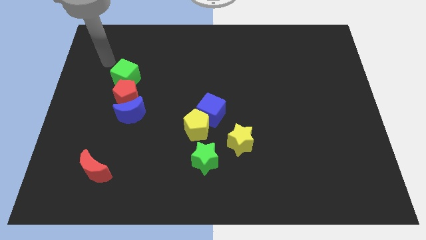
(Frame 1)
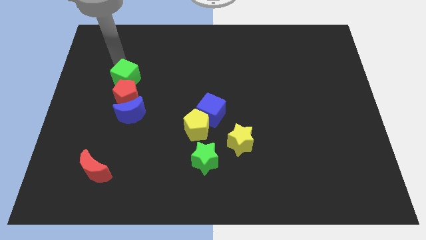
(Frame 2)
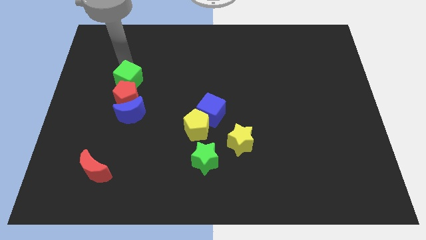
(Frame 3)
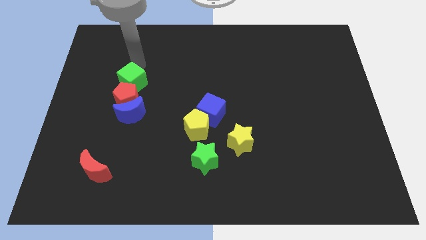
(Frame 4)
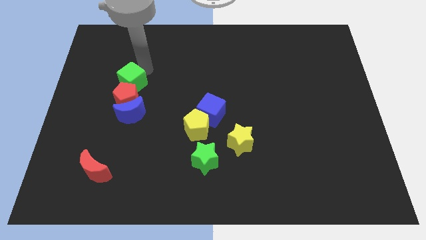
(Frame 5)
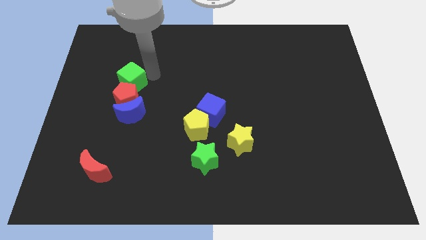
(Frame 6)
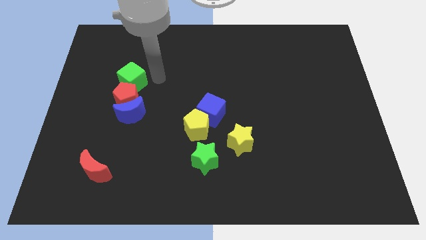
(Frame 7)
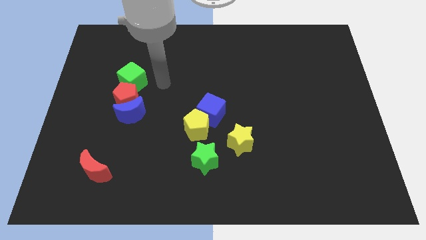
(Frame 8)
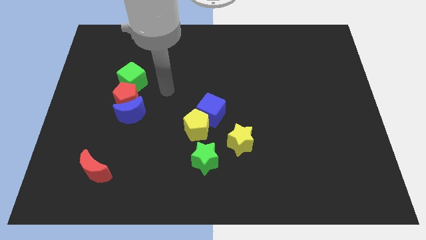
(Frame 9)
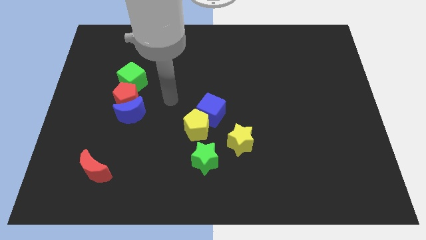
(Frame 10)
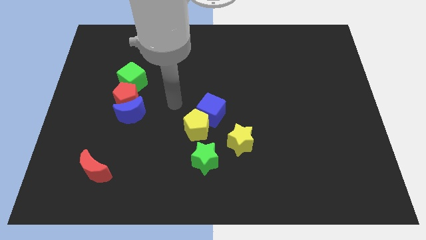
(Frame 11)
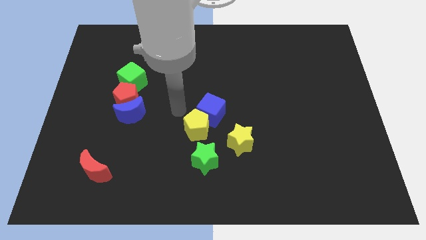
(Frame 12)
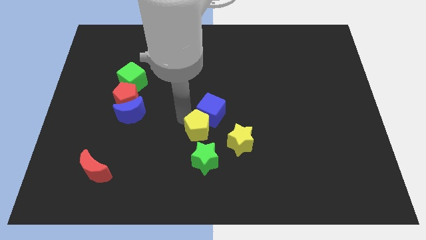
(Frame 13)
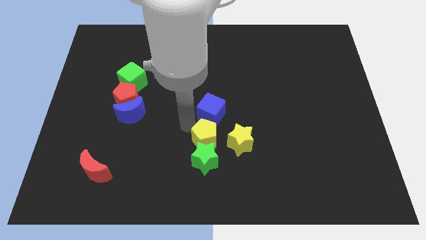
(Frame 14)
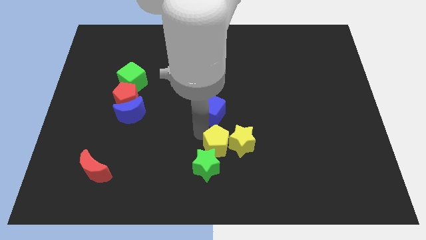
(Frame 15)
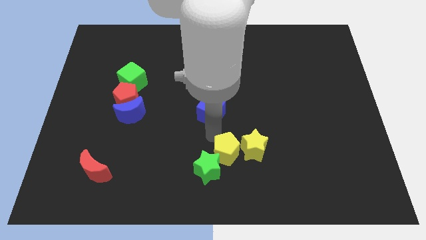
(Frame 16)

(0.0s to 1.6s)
separate the blue cube from the yellow pentagon

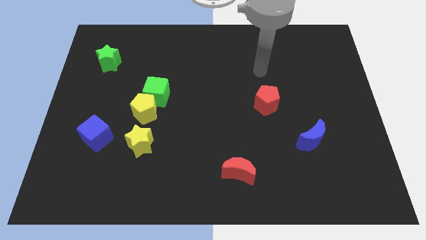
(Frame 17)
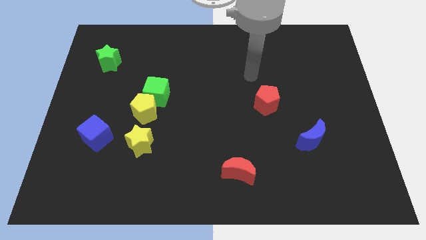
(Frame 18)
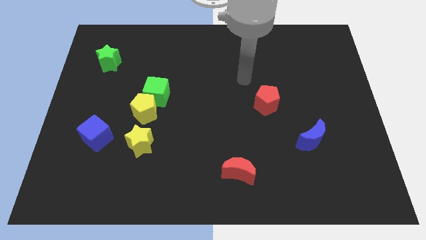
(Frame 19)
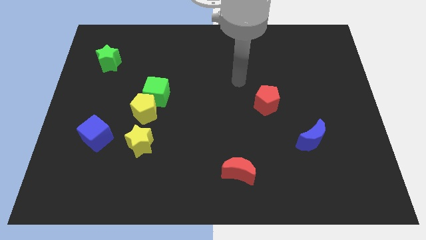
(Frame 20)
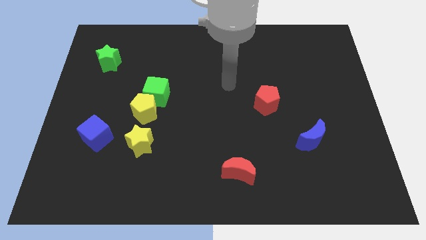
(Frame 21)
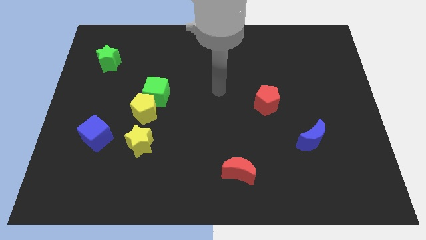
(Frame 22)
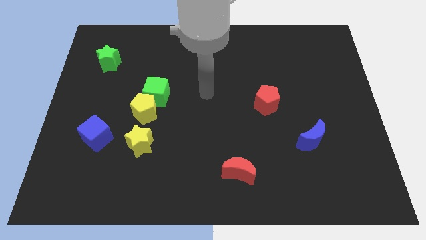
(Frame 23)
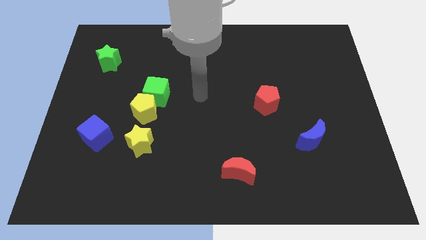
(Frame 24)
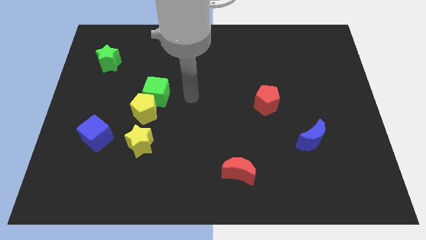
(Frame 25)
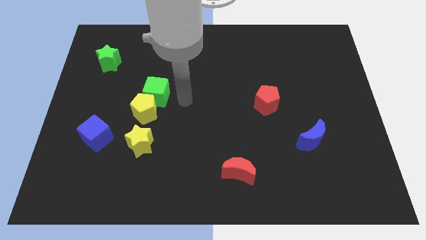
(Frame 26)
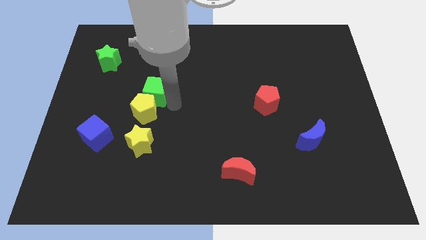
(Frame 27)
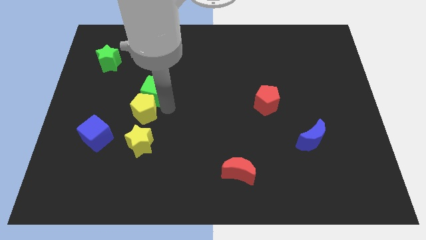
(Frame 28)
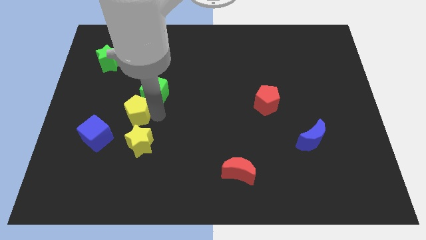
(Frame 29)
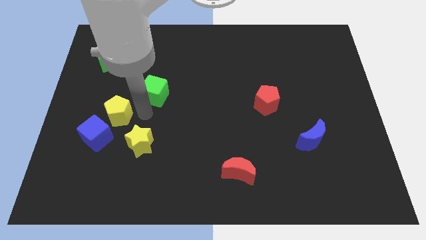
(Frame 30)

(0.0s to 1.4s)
move the green cube away from the yellow pentagon

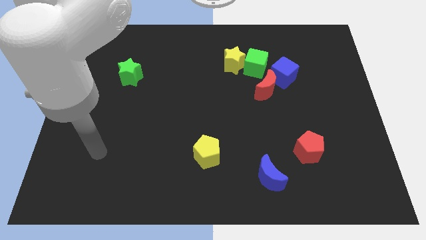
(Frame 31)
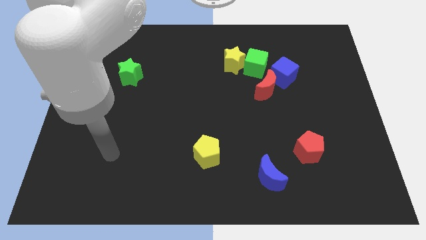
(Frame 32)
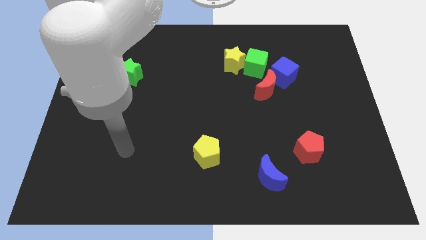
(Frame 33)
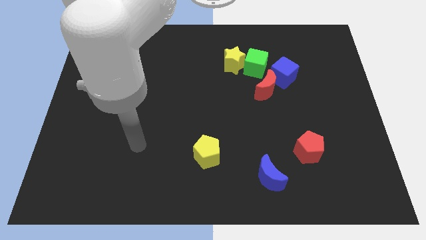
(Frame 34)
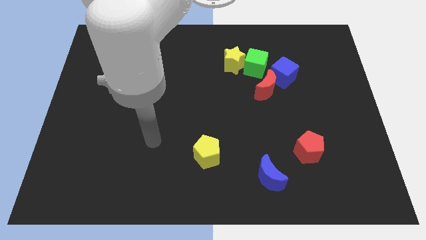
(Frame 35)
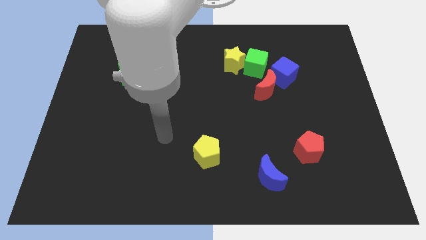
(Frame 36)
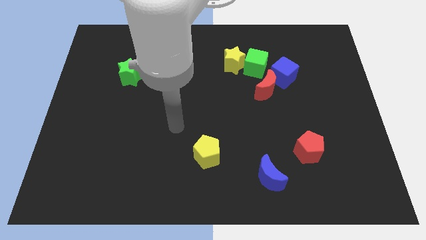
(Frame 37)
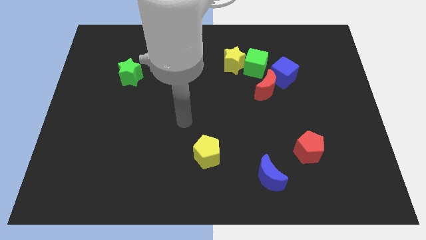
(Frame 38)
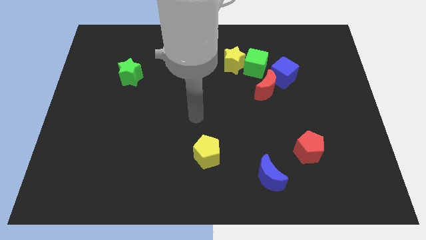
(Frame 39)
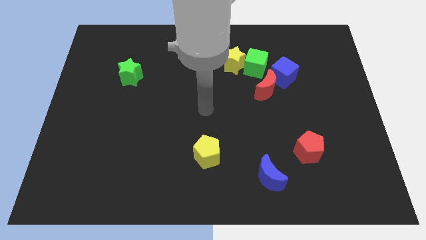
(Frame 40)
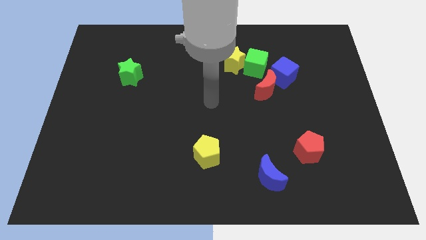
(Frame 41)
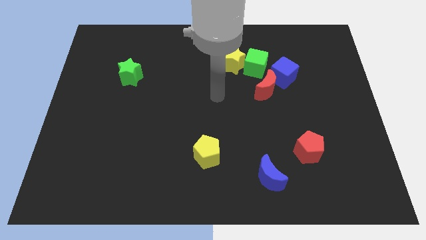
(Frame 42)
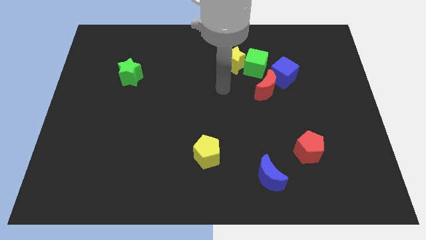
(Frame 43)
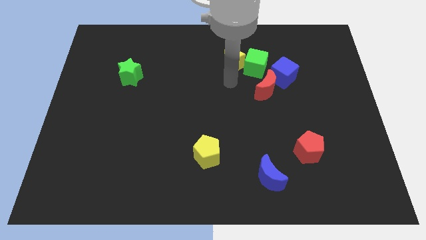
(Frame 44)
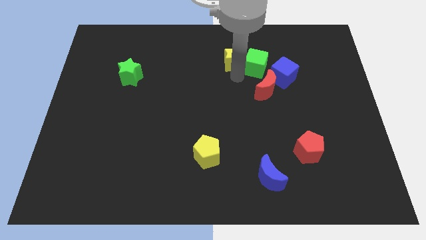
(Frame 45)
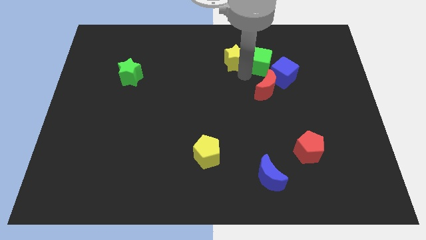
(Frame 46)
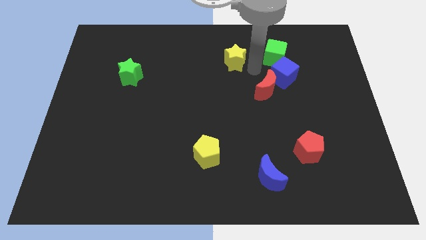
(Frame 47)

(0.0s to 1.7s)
pull the yellow star apart from the green cube

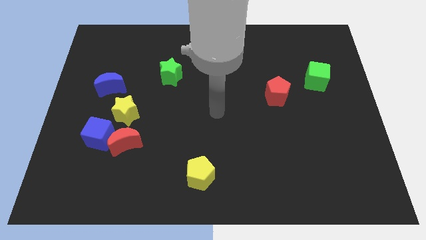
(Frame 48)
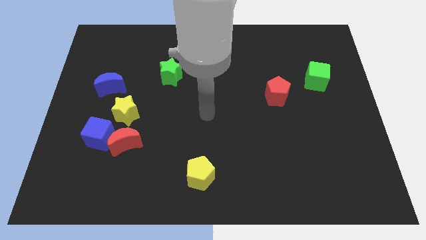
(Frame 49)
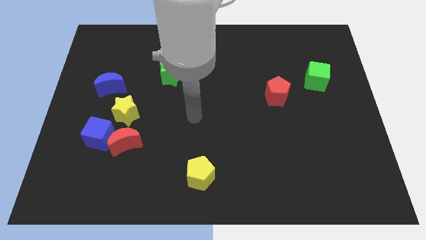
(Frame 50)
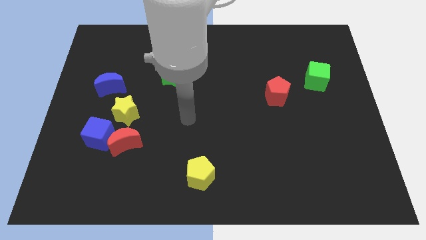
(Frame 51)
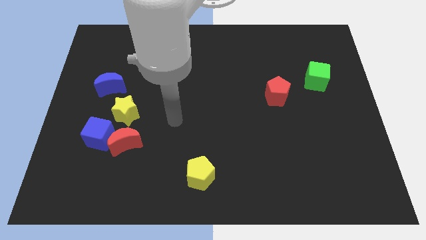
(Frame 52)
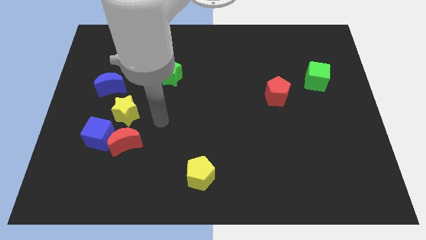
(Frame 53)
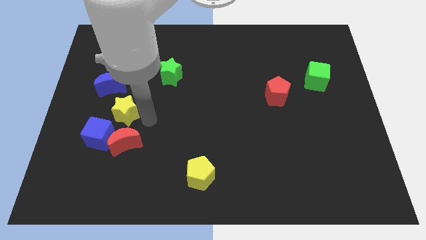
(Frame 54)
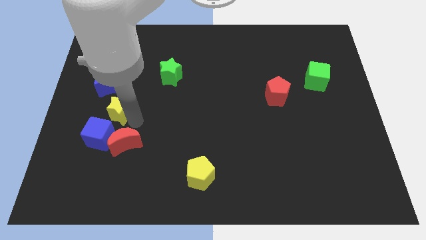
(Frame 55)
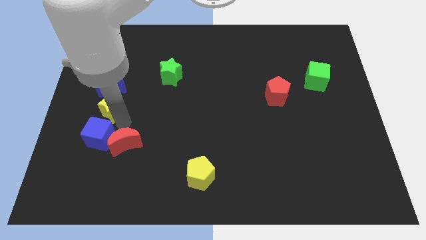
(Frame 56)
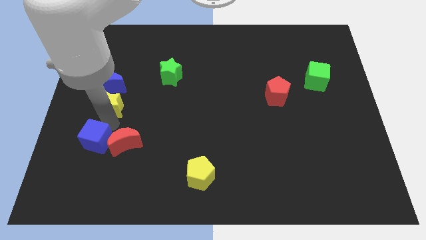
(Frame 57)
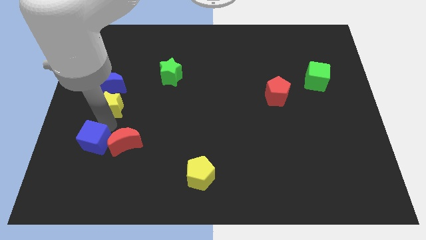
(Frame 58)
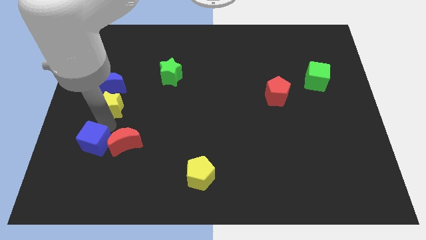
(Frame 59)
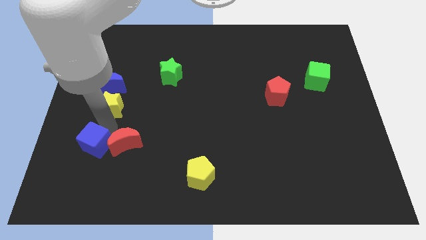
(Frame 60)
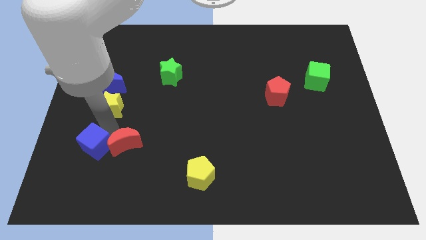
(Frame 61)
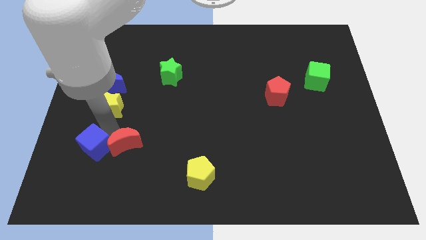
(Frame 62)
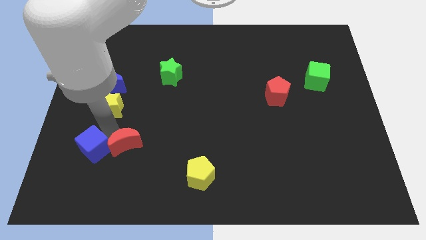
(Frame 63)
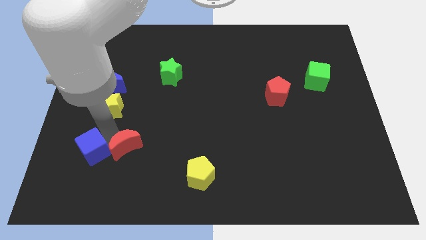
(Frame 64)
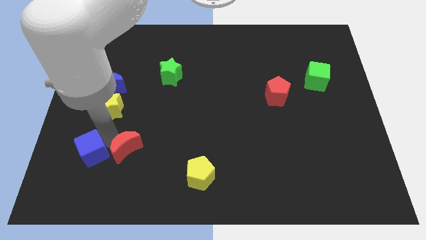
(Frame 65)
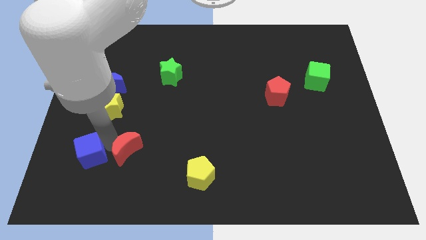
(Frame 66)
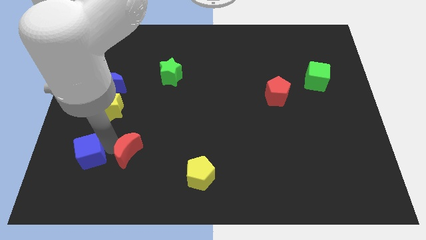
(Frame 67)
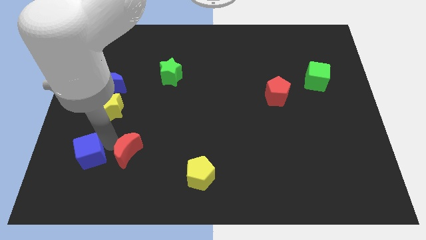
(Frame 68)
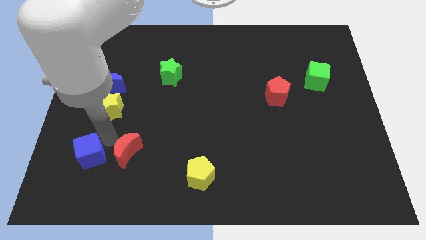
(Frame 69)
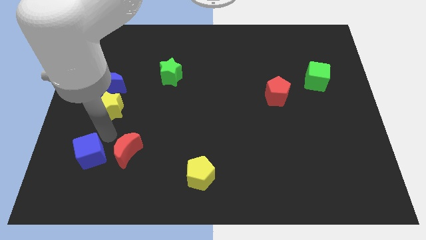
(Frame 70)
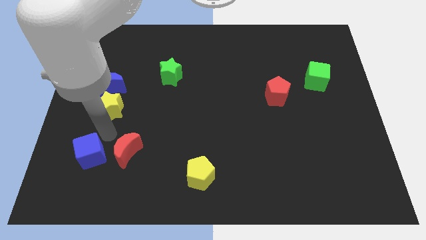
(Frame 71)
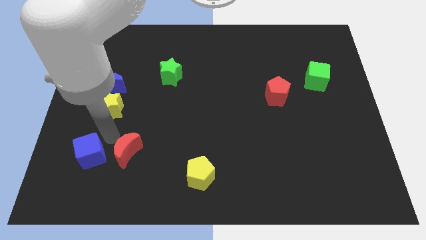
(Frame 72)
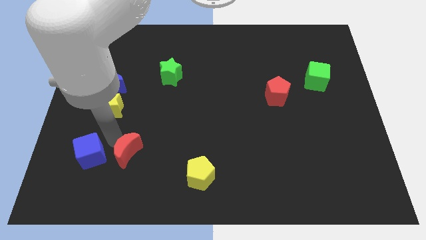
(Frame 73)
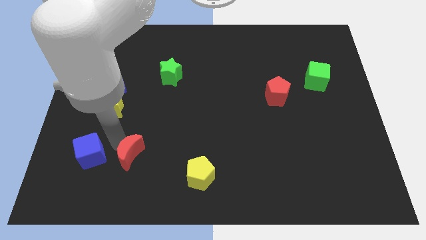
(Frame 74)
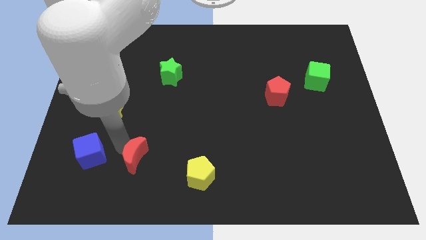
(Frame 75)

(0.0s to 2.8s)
move the red moon away from the blue cube and yellow star

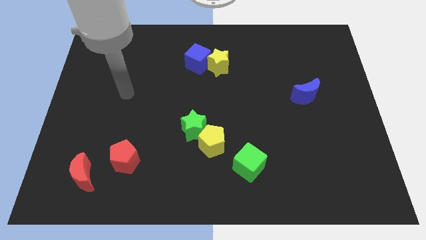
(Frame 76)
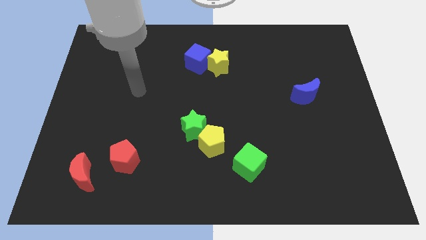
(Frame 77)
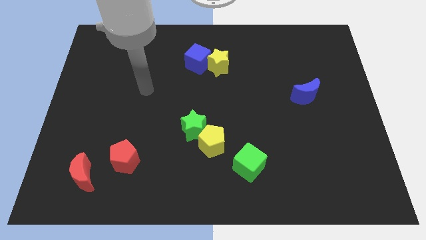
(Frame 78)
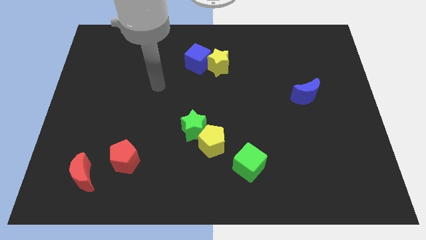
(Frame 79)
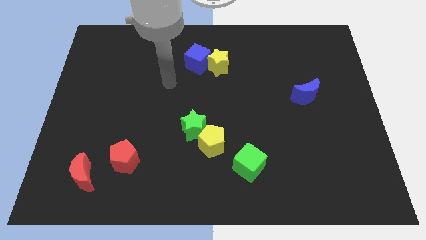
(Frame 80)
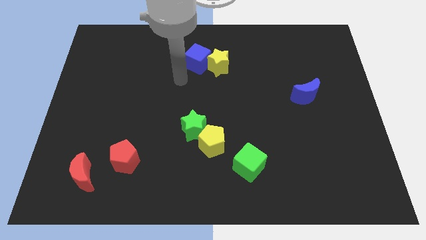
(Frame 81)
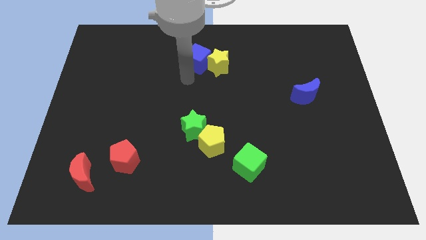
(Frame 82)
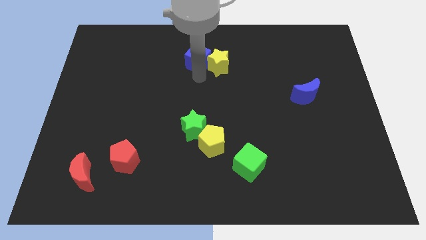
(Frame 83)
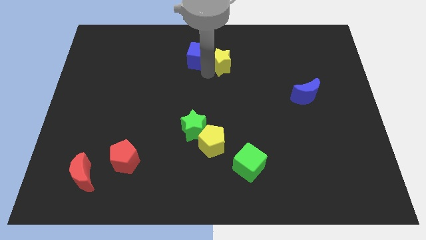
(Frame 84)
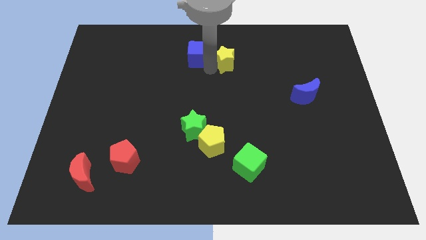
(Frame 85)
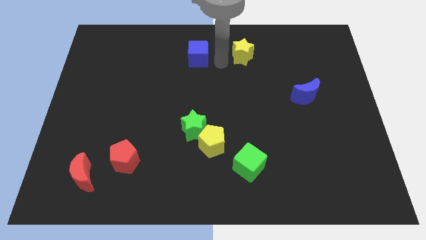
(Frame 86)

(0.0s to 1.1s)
pull the blue cube apart from the yellow star

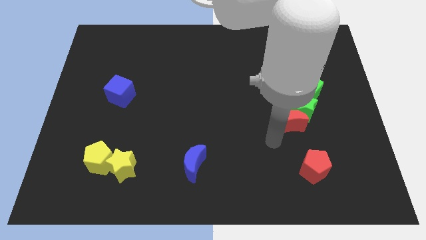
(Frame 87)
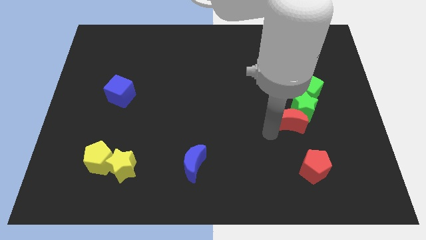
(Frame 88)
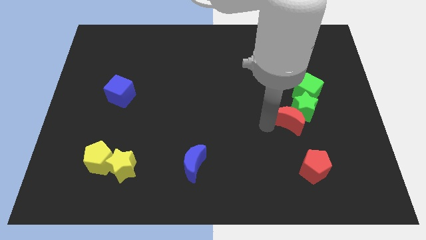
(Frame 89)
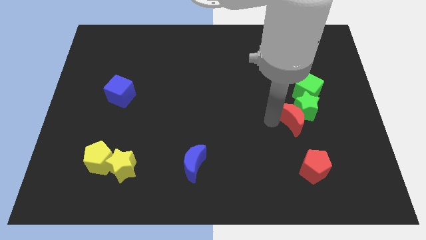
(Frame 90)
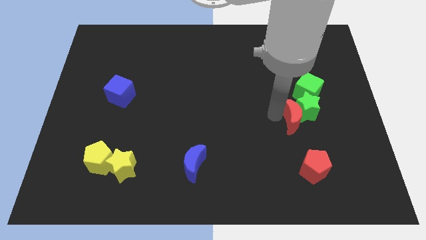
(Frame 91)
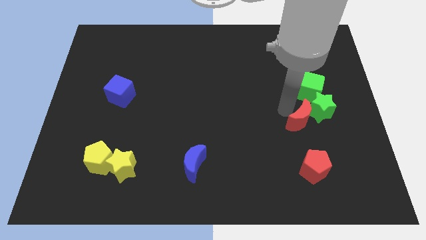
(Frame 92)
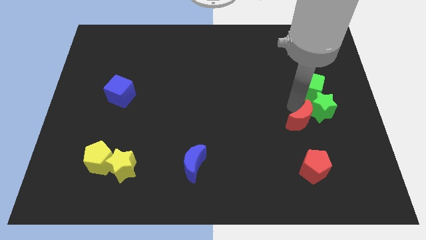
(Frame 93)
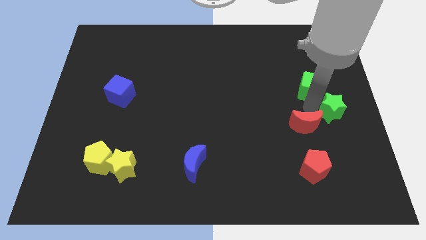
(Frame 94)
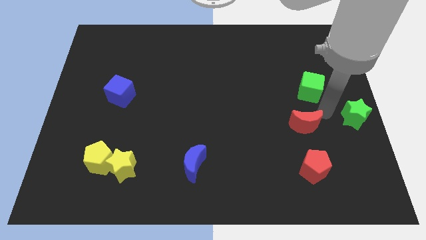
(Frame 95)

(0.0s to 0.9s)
pull the red moon apart from the green star
